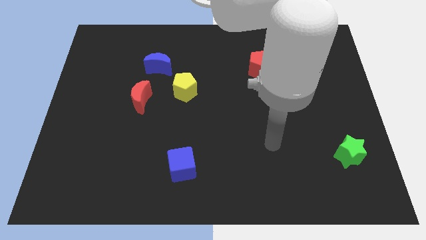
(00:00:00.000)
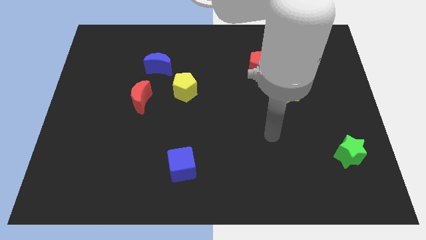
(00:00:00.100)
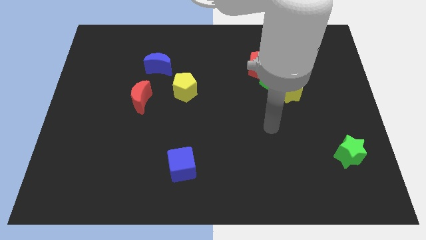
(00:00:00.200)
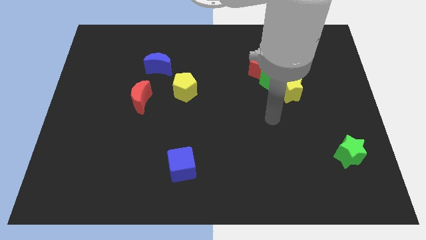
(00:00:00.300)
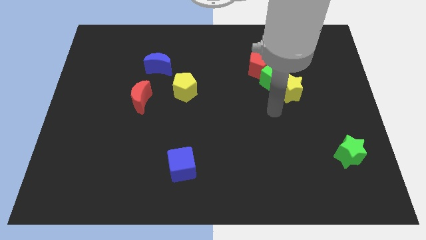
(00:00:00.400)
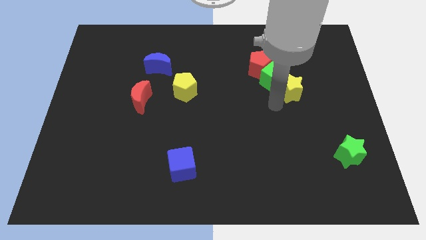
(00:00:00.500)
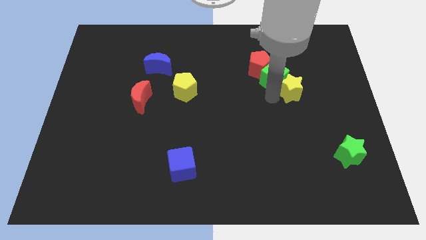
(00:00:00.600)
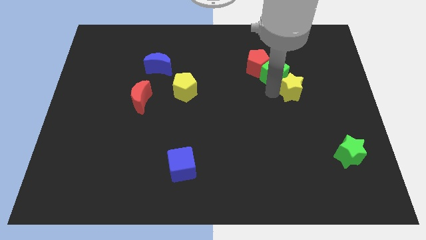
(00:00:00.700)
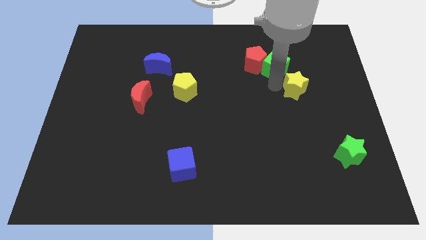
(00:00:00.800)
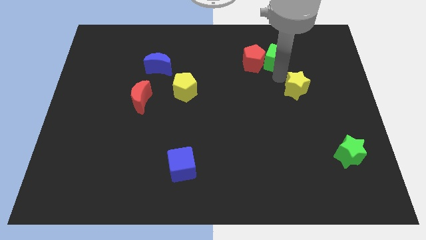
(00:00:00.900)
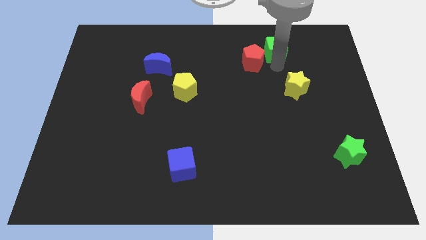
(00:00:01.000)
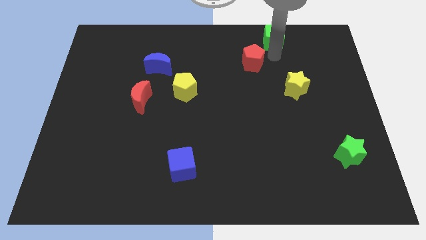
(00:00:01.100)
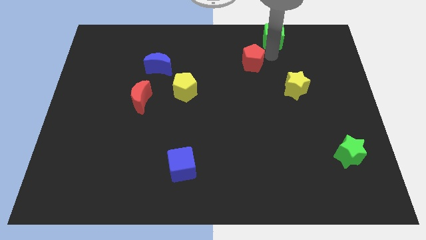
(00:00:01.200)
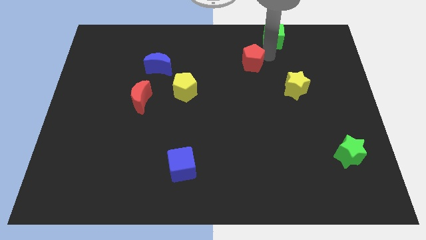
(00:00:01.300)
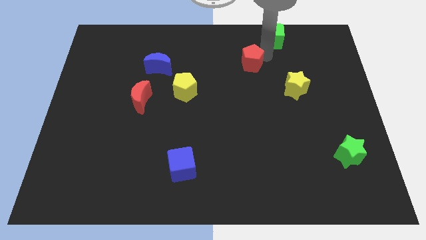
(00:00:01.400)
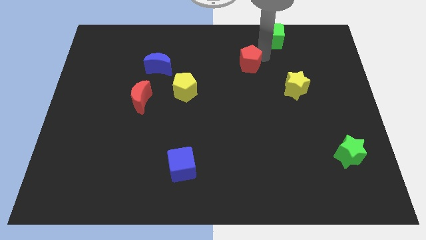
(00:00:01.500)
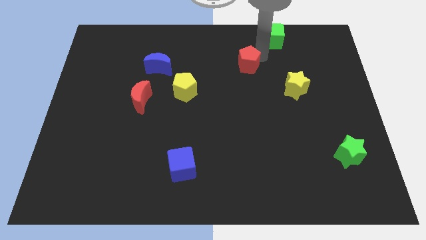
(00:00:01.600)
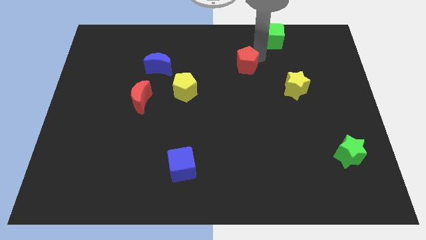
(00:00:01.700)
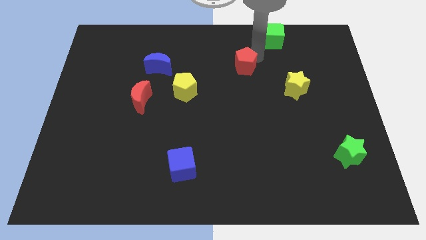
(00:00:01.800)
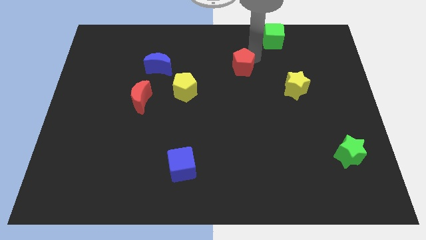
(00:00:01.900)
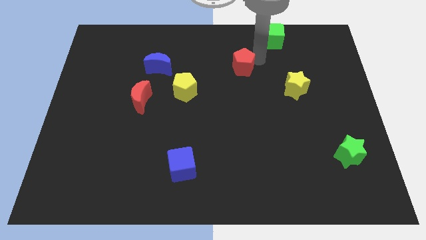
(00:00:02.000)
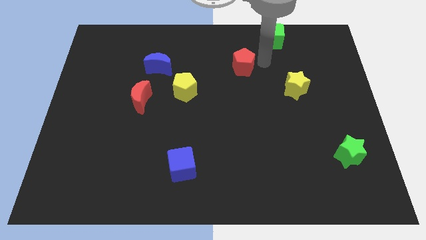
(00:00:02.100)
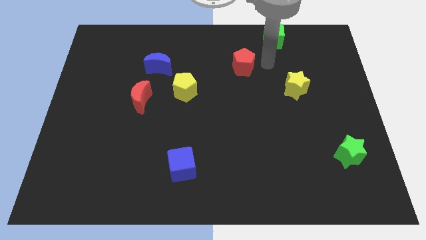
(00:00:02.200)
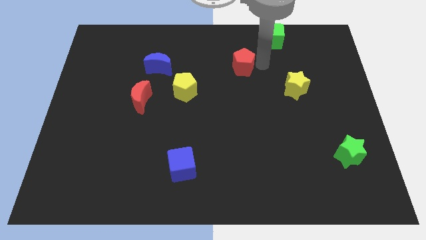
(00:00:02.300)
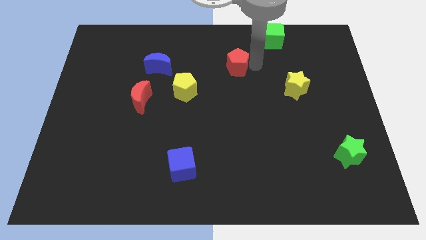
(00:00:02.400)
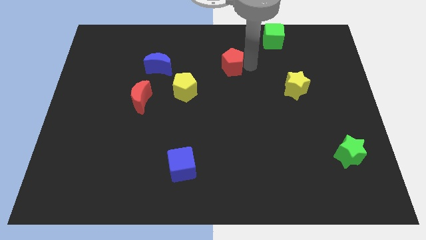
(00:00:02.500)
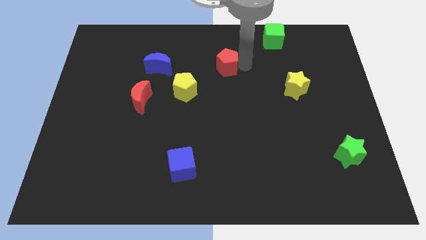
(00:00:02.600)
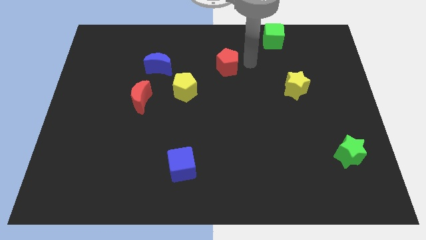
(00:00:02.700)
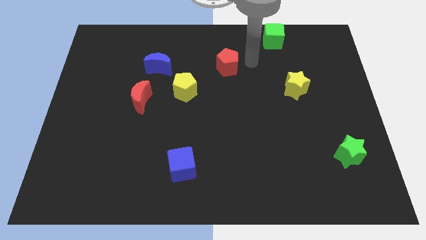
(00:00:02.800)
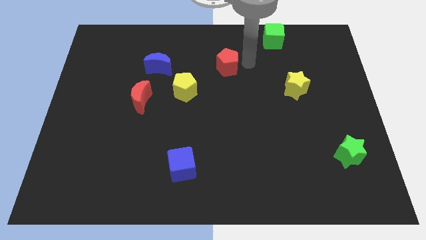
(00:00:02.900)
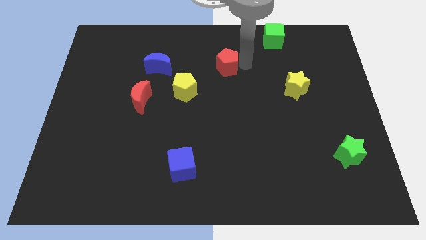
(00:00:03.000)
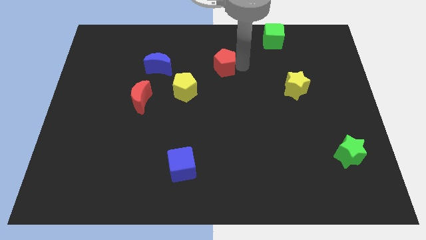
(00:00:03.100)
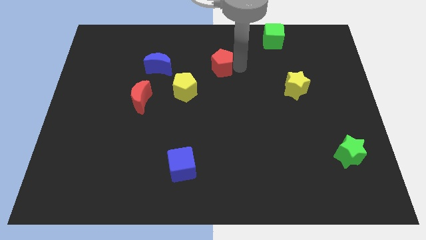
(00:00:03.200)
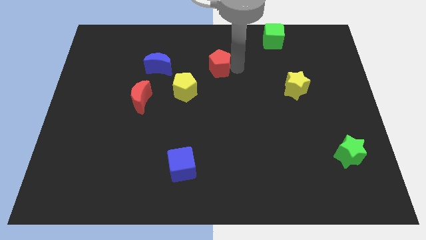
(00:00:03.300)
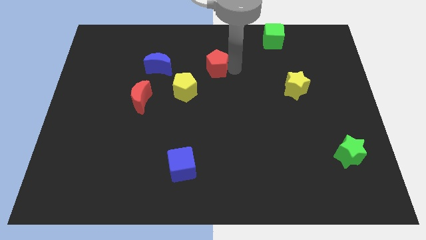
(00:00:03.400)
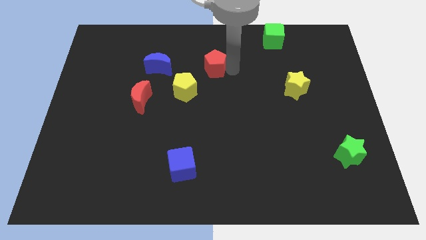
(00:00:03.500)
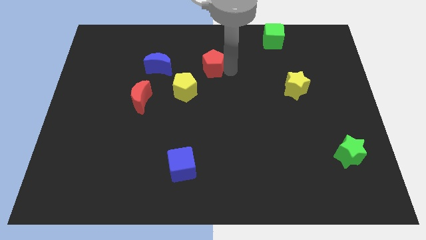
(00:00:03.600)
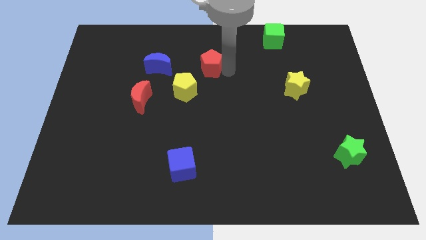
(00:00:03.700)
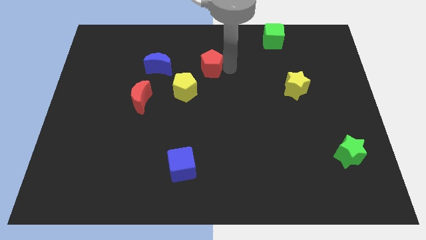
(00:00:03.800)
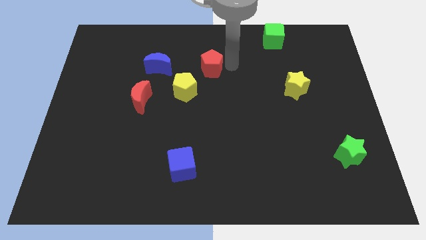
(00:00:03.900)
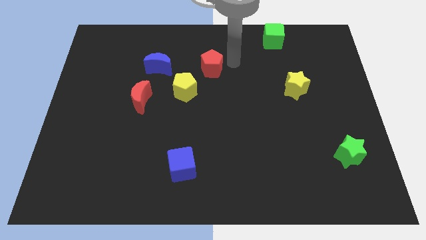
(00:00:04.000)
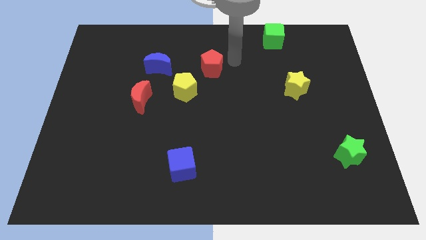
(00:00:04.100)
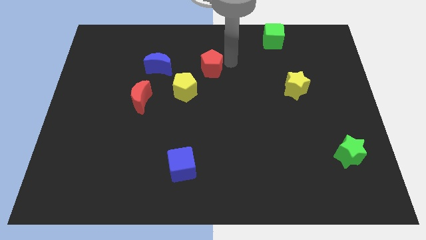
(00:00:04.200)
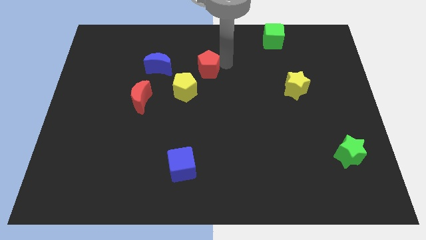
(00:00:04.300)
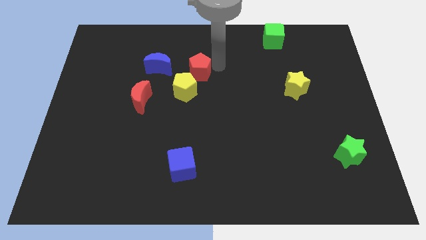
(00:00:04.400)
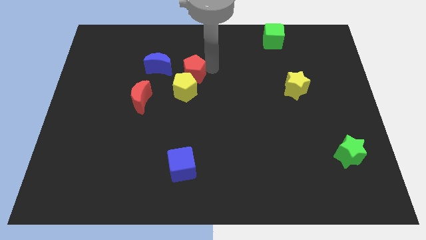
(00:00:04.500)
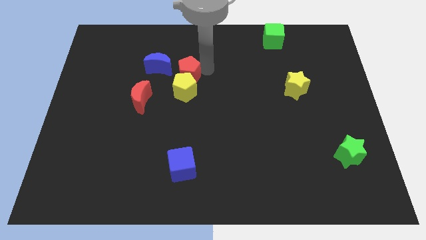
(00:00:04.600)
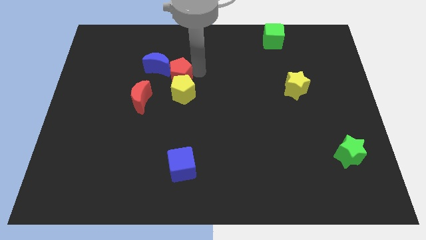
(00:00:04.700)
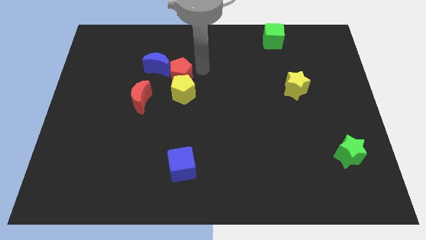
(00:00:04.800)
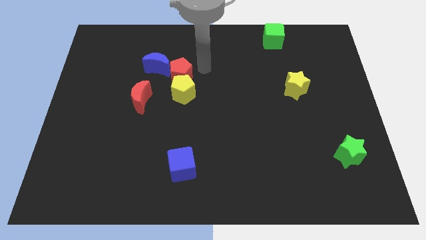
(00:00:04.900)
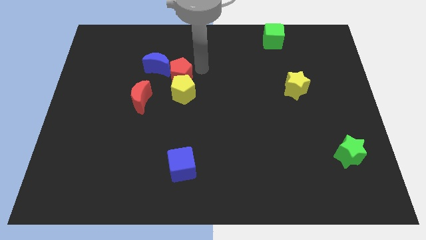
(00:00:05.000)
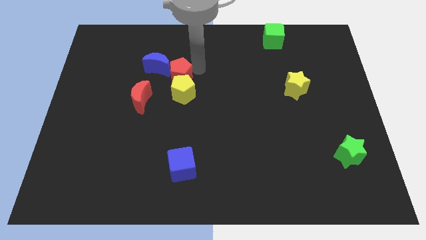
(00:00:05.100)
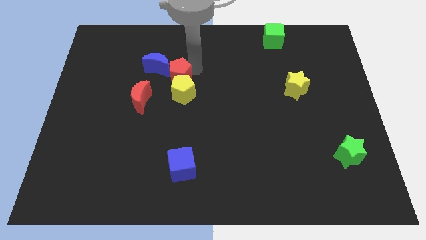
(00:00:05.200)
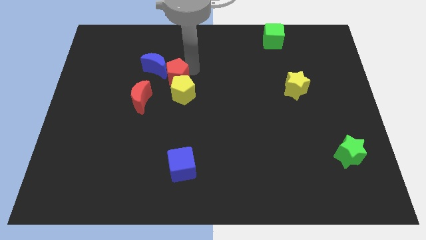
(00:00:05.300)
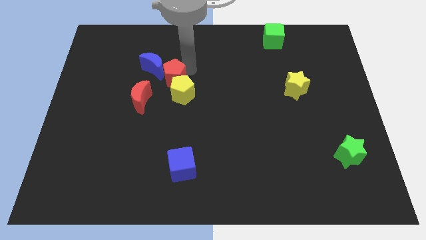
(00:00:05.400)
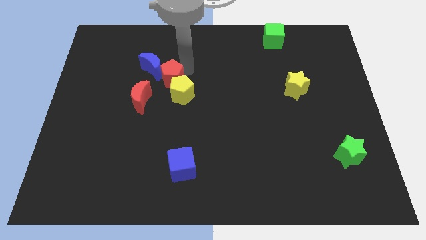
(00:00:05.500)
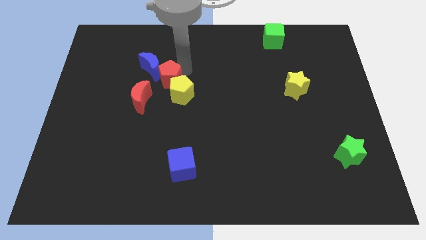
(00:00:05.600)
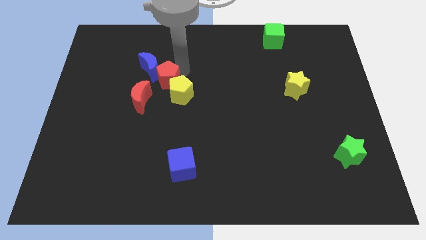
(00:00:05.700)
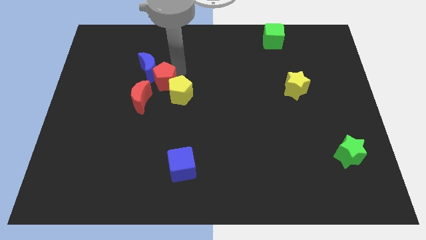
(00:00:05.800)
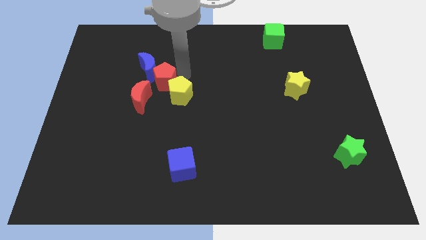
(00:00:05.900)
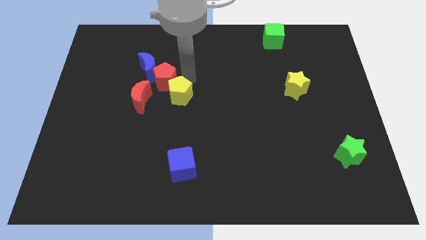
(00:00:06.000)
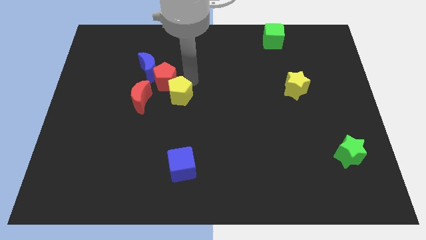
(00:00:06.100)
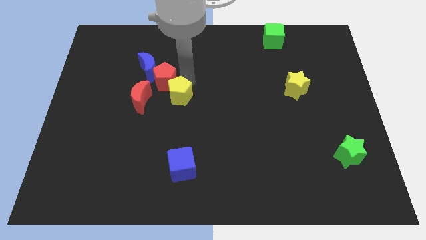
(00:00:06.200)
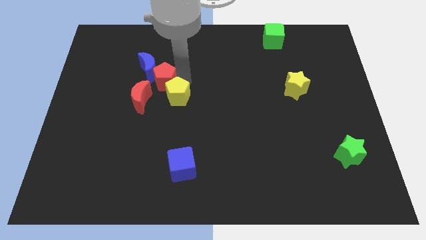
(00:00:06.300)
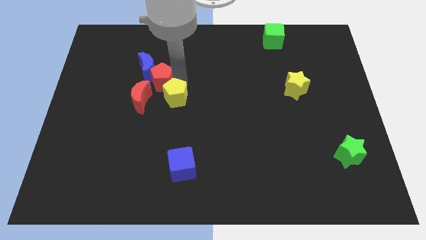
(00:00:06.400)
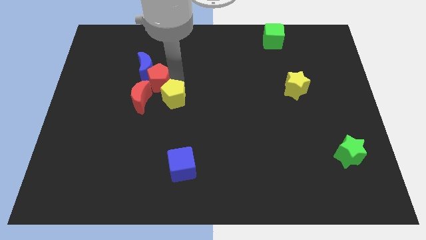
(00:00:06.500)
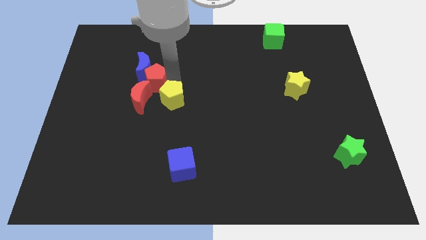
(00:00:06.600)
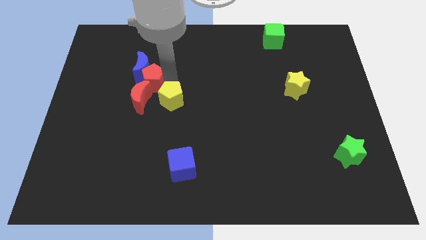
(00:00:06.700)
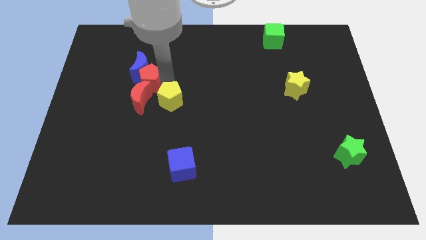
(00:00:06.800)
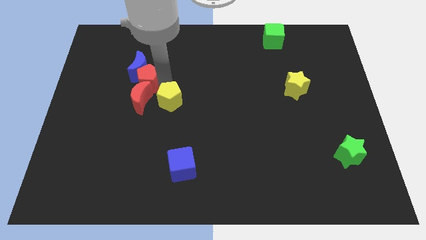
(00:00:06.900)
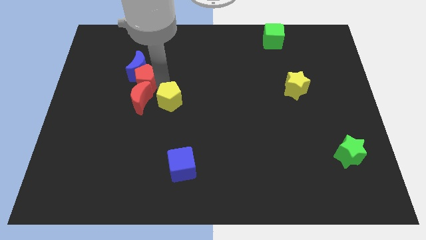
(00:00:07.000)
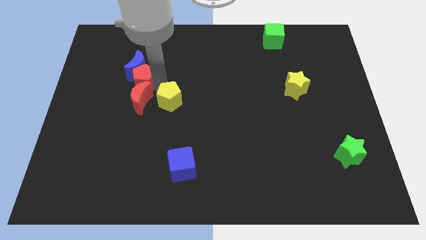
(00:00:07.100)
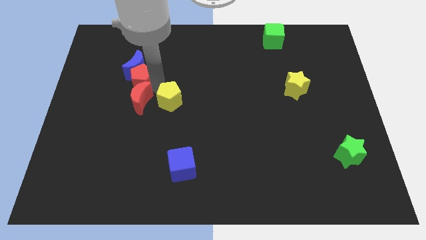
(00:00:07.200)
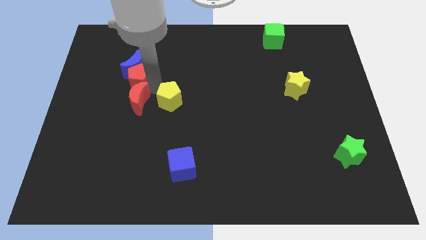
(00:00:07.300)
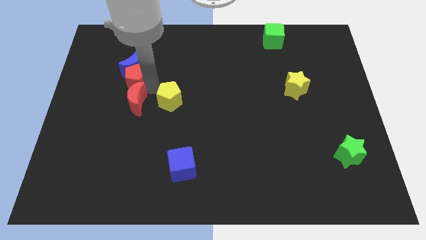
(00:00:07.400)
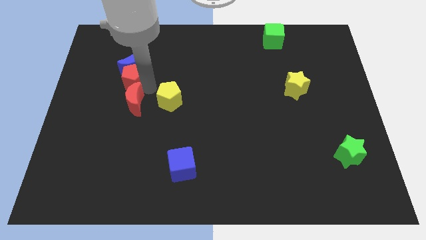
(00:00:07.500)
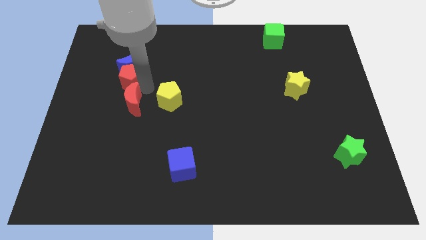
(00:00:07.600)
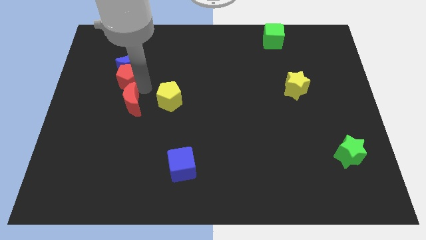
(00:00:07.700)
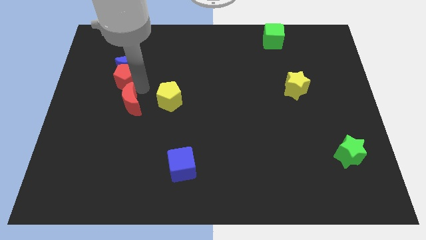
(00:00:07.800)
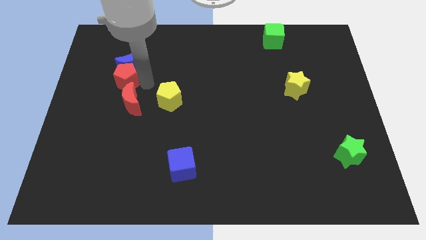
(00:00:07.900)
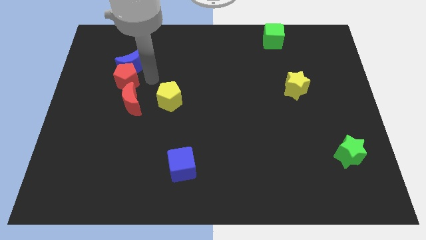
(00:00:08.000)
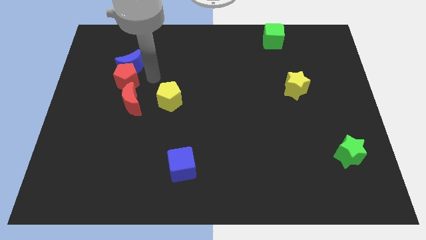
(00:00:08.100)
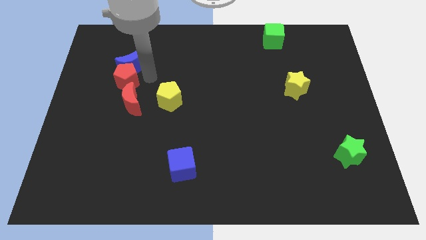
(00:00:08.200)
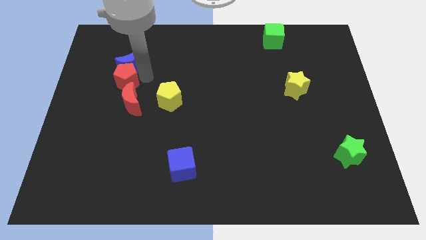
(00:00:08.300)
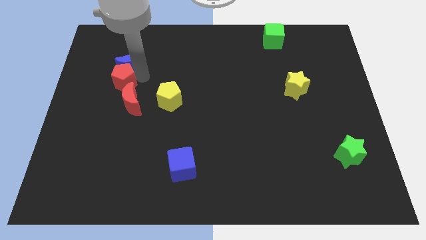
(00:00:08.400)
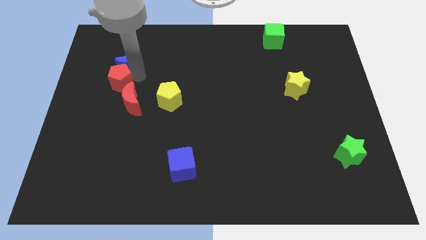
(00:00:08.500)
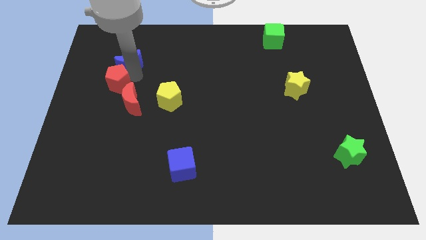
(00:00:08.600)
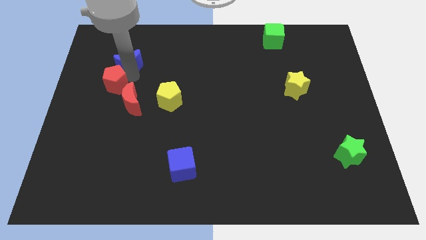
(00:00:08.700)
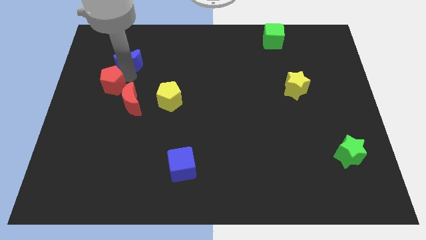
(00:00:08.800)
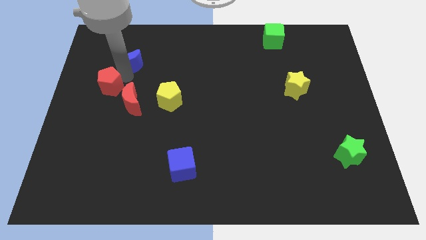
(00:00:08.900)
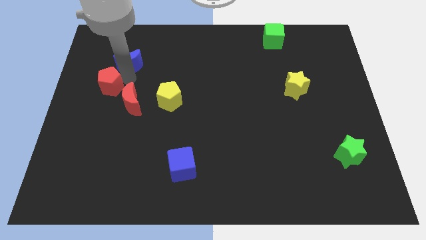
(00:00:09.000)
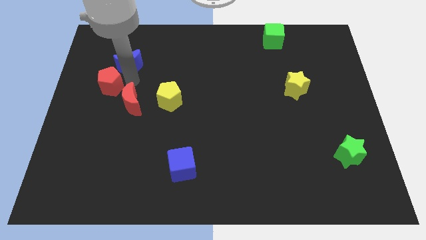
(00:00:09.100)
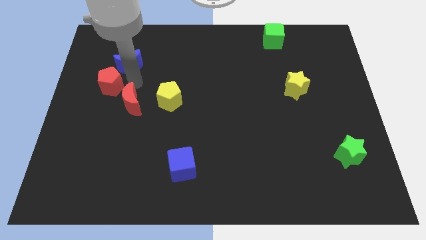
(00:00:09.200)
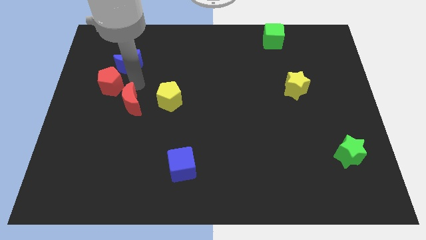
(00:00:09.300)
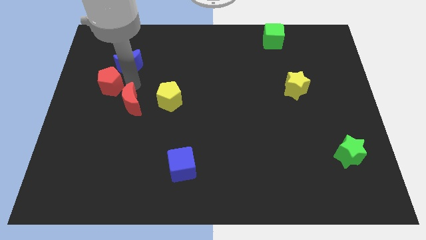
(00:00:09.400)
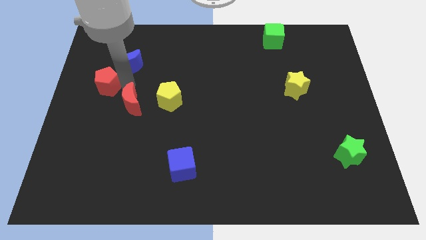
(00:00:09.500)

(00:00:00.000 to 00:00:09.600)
push the red pentagon to the left side
